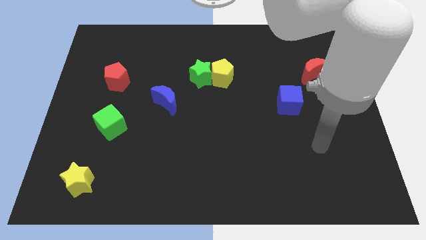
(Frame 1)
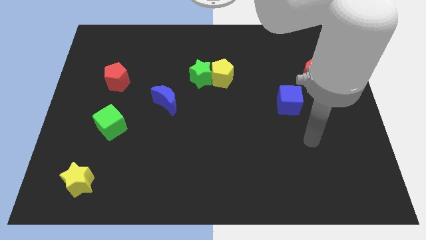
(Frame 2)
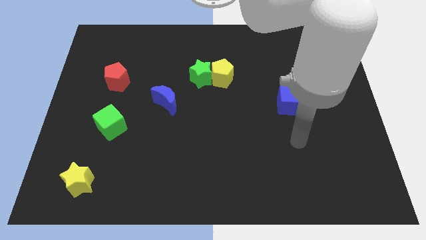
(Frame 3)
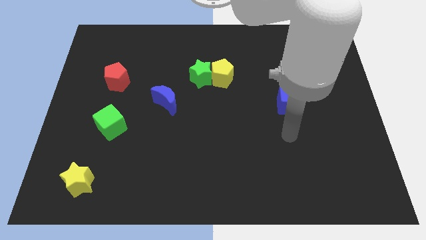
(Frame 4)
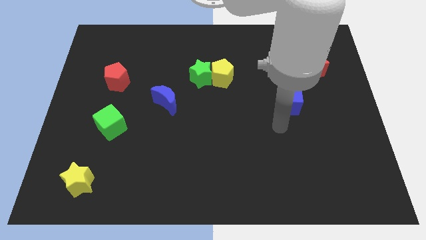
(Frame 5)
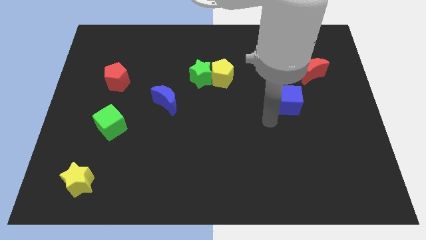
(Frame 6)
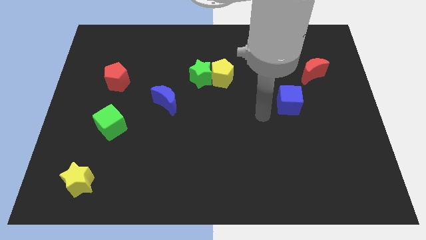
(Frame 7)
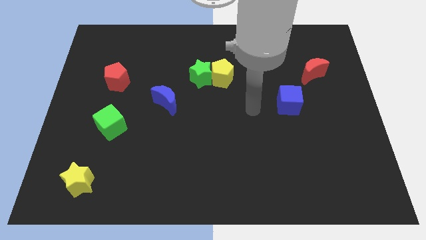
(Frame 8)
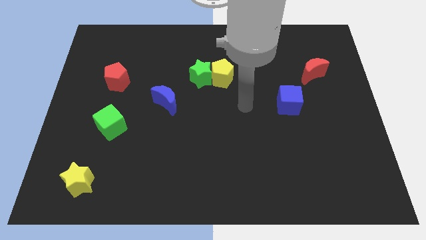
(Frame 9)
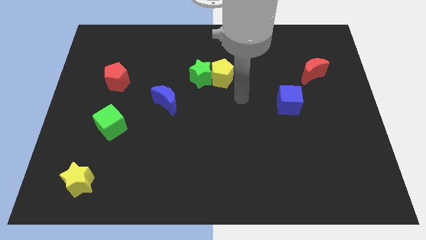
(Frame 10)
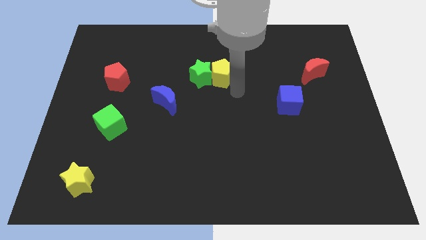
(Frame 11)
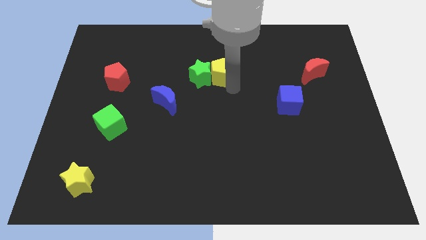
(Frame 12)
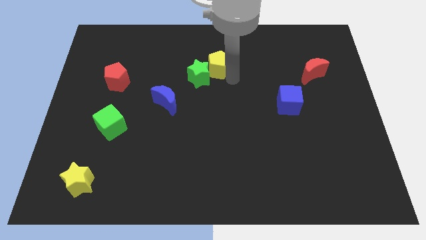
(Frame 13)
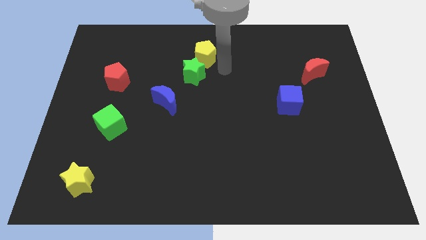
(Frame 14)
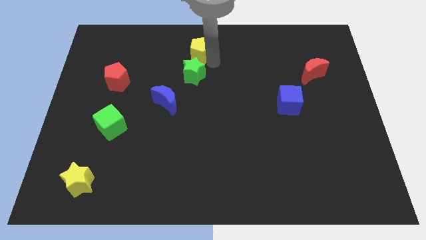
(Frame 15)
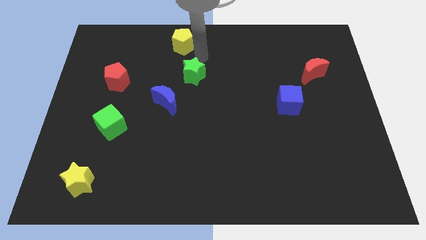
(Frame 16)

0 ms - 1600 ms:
separate the green star from the yellow pentagon

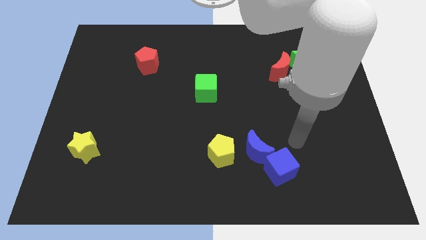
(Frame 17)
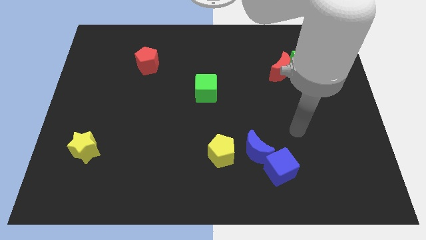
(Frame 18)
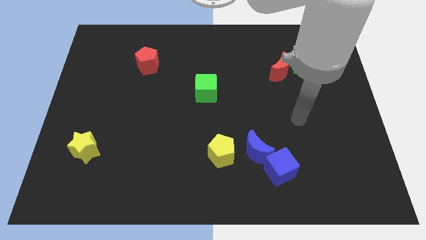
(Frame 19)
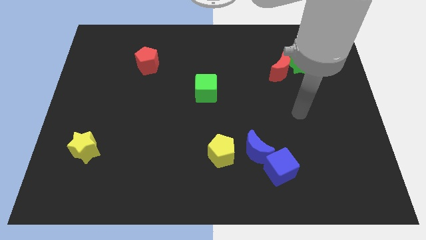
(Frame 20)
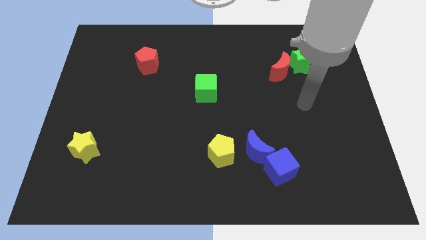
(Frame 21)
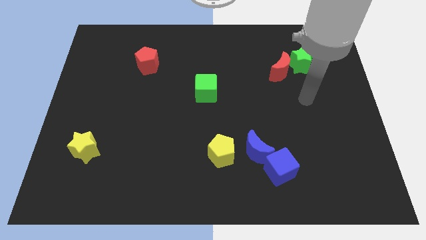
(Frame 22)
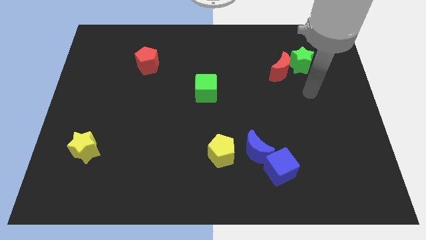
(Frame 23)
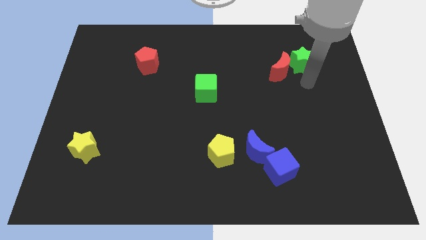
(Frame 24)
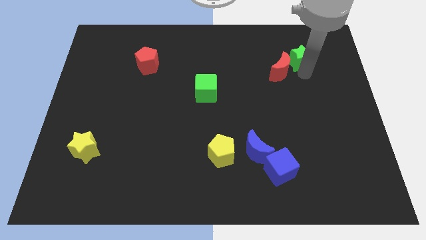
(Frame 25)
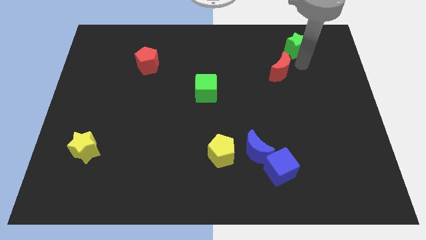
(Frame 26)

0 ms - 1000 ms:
move the red moon away from the green star

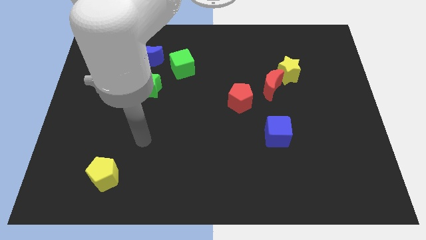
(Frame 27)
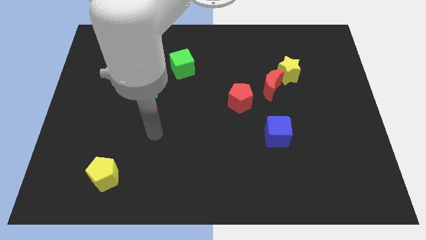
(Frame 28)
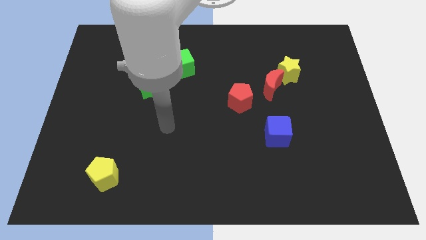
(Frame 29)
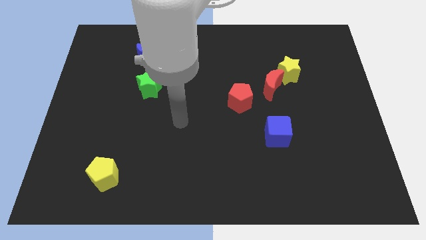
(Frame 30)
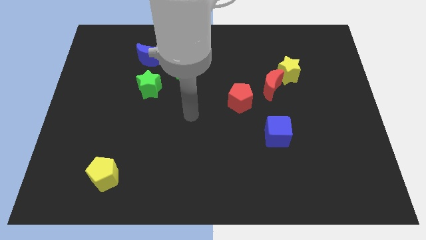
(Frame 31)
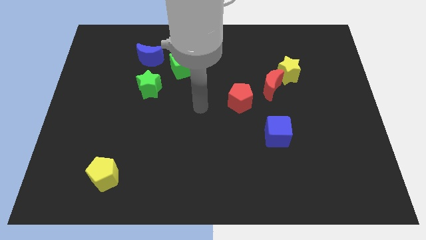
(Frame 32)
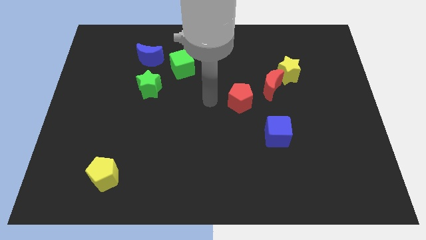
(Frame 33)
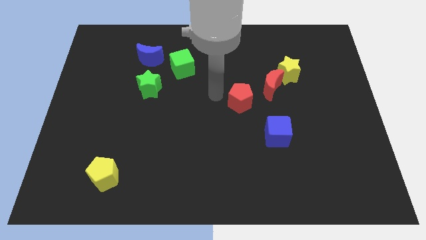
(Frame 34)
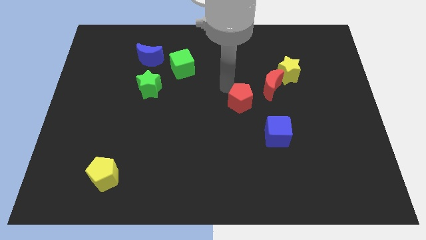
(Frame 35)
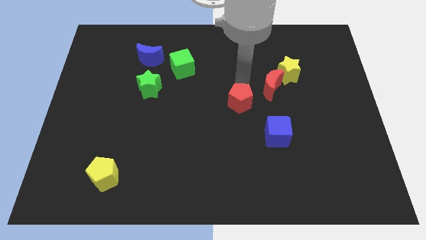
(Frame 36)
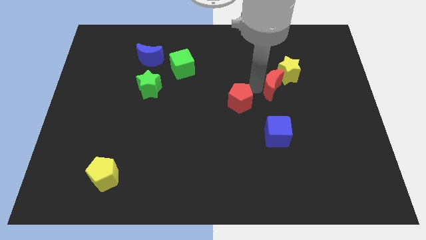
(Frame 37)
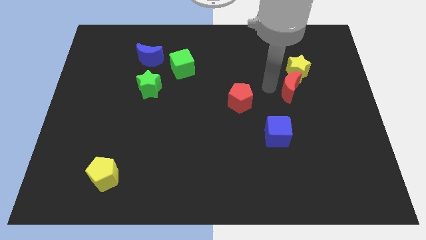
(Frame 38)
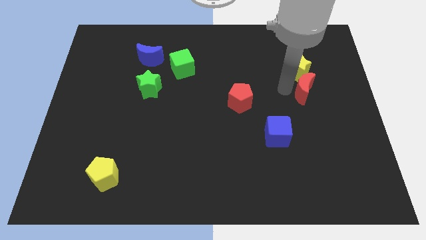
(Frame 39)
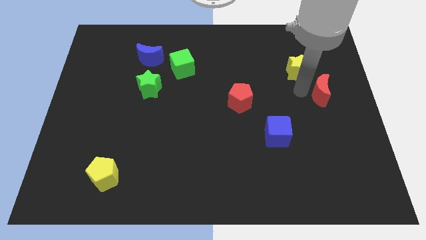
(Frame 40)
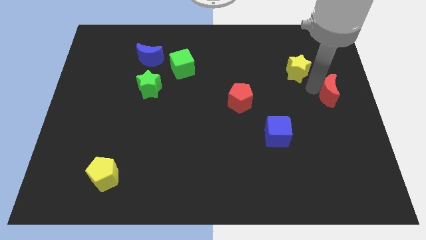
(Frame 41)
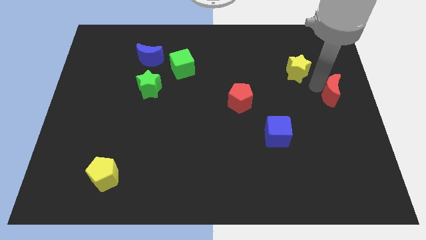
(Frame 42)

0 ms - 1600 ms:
separate the yellow star from the red moon

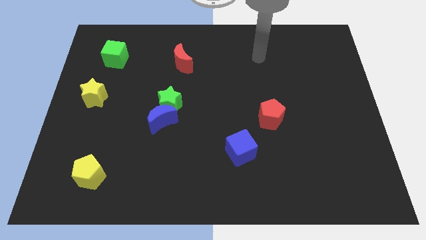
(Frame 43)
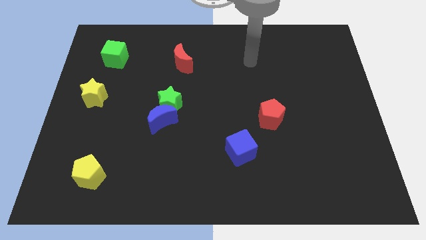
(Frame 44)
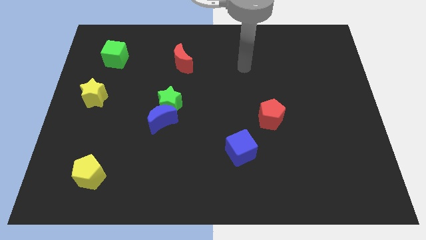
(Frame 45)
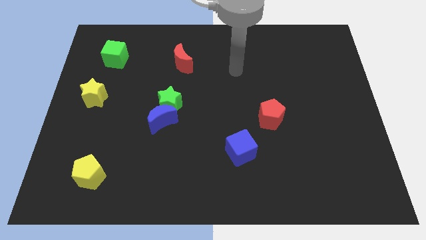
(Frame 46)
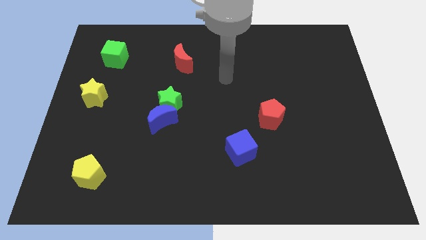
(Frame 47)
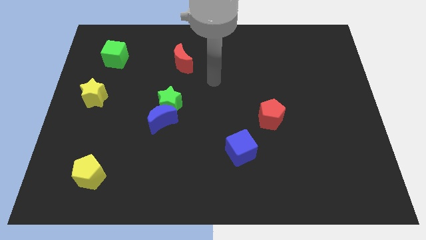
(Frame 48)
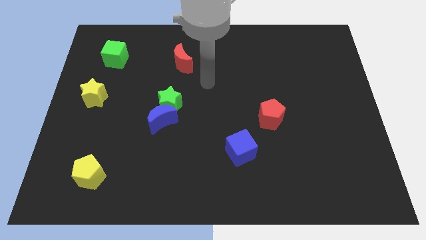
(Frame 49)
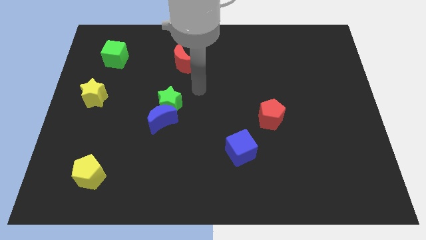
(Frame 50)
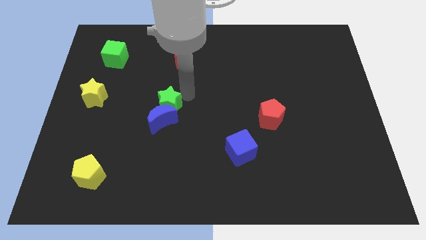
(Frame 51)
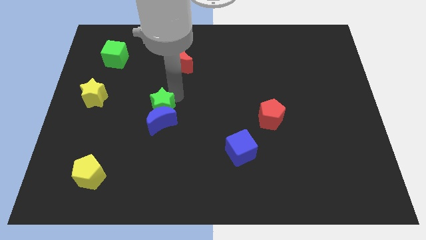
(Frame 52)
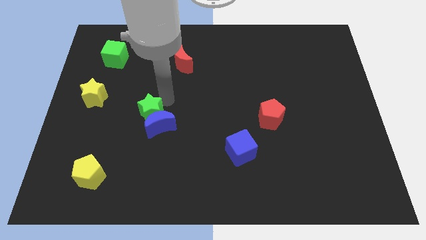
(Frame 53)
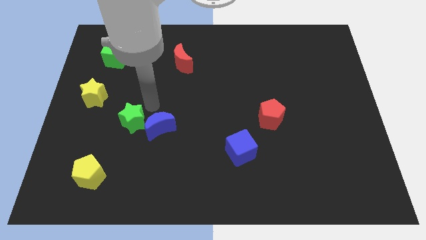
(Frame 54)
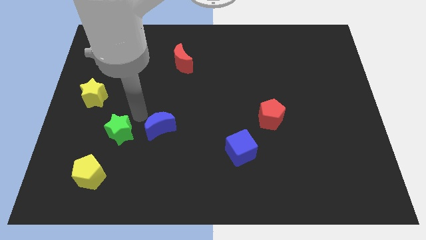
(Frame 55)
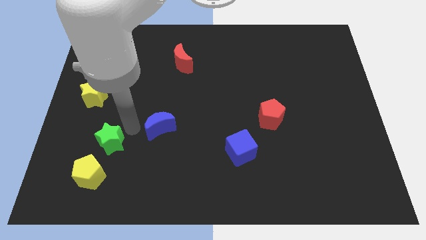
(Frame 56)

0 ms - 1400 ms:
move the blue moon away from the green star

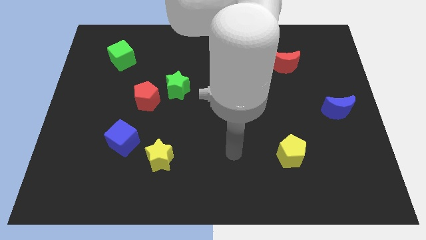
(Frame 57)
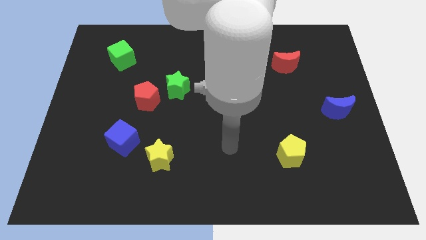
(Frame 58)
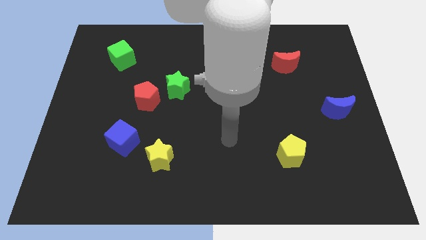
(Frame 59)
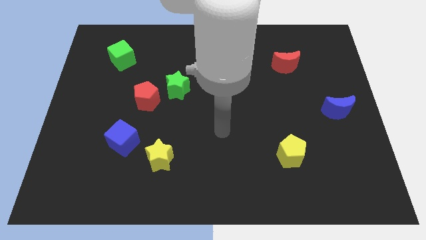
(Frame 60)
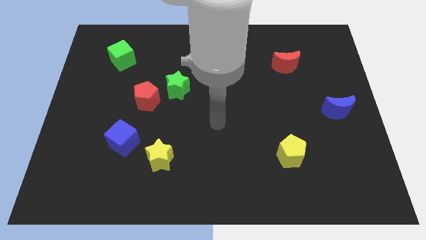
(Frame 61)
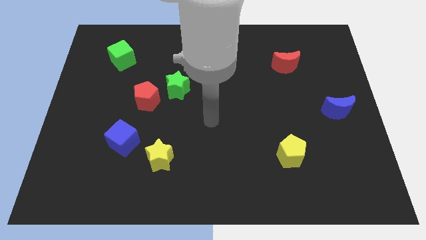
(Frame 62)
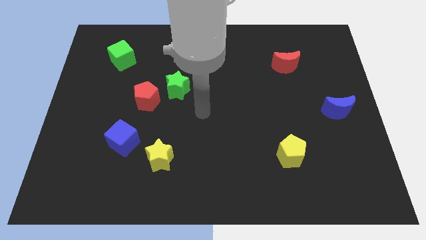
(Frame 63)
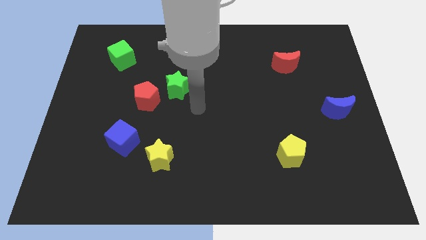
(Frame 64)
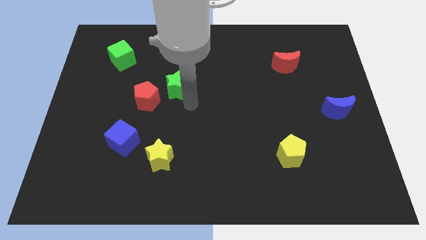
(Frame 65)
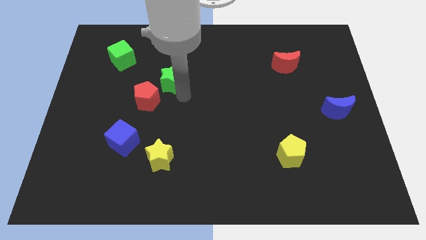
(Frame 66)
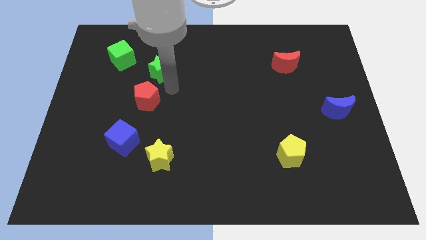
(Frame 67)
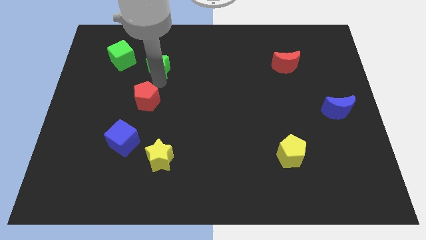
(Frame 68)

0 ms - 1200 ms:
separate the red pentagon from the green star

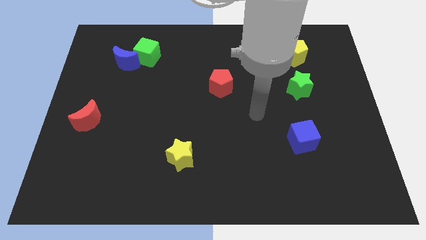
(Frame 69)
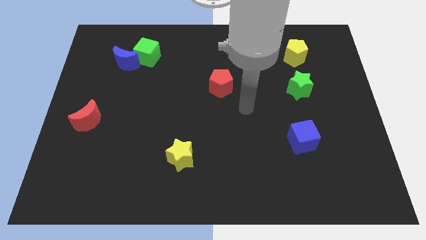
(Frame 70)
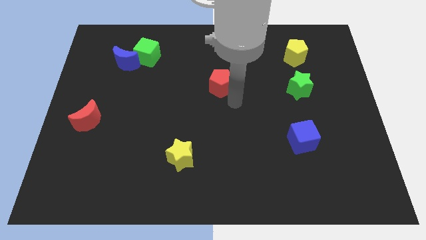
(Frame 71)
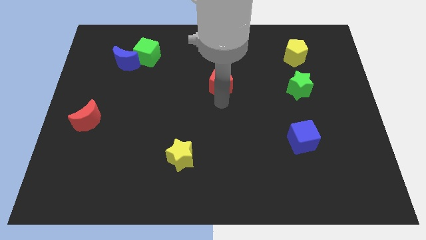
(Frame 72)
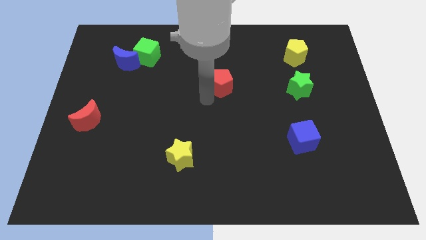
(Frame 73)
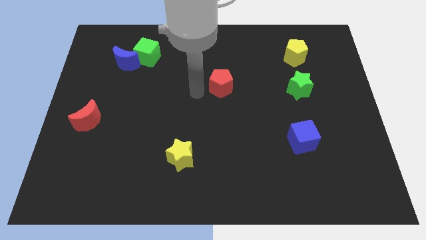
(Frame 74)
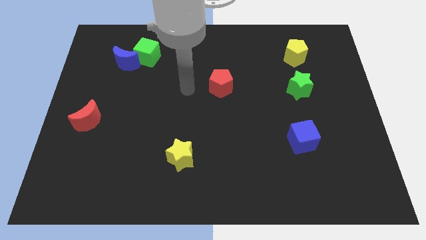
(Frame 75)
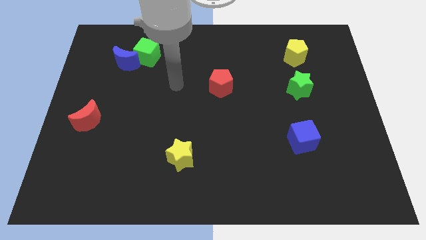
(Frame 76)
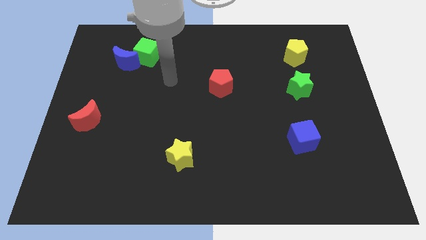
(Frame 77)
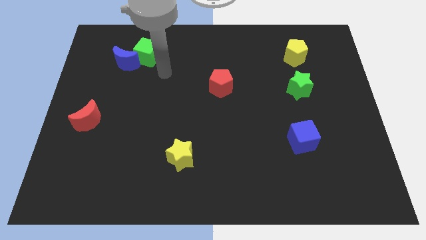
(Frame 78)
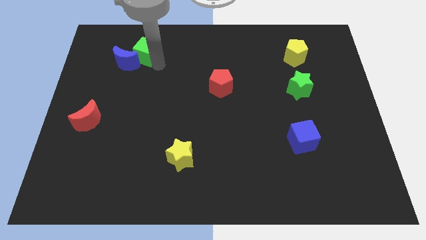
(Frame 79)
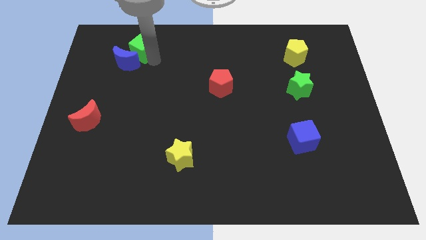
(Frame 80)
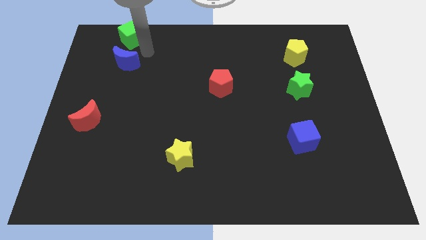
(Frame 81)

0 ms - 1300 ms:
pull the blue moon apart from the green cube

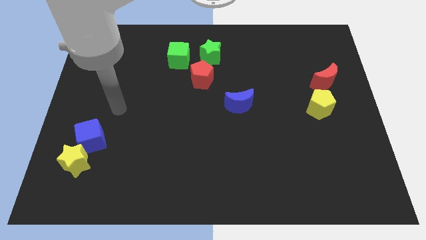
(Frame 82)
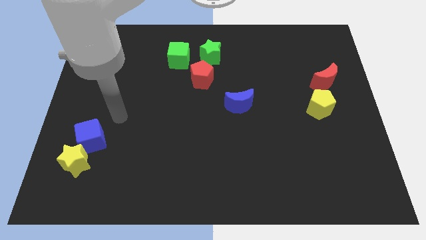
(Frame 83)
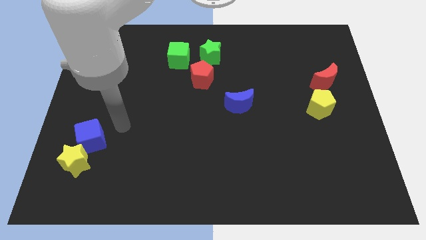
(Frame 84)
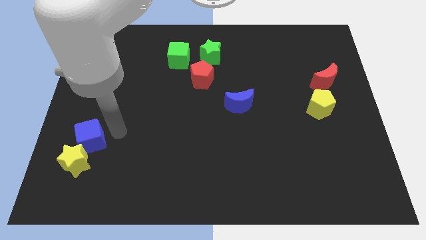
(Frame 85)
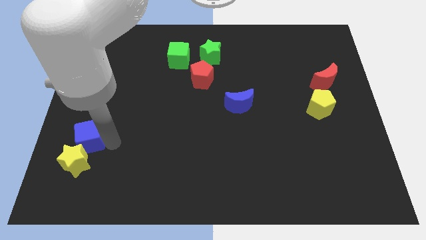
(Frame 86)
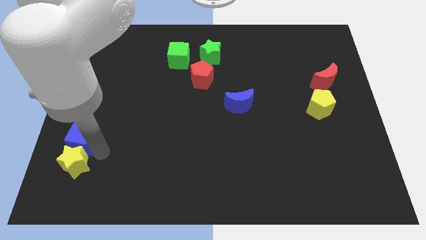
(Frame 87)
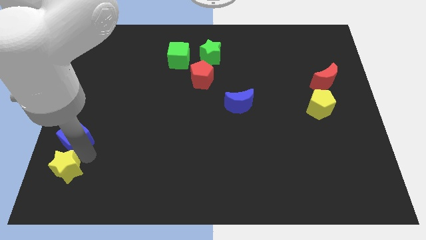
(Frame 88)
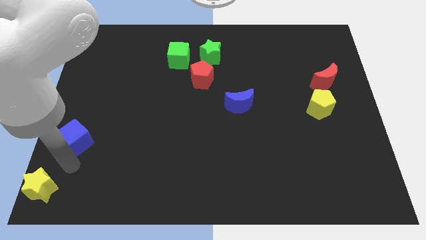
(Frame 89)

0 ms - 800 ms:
pull the blue cube apart from the yellow star

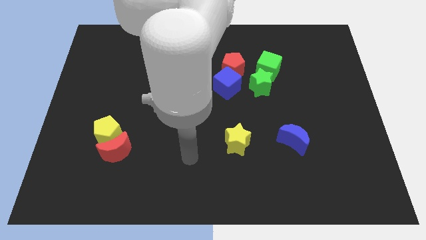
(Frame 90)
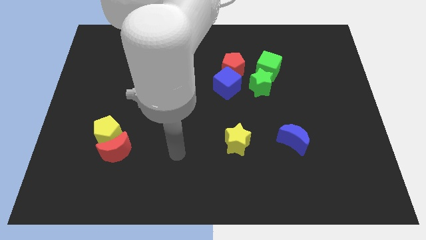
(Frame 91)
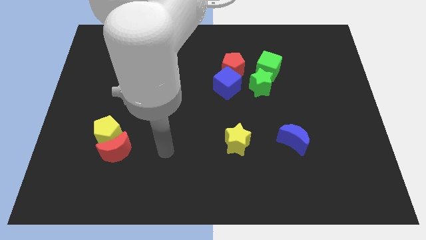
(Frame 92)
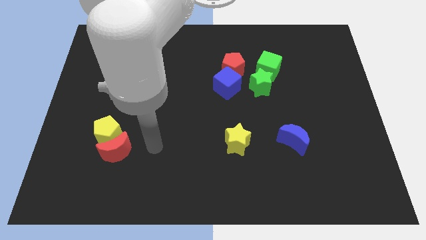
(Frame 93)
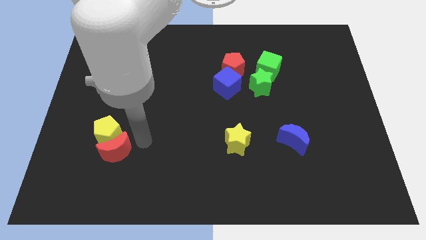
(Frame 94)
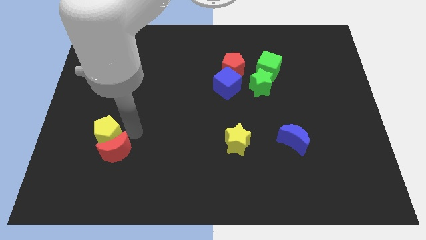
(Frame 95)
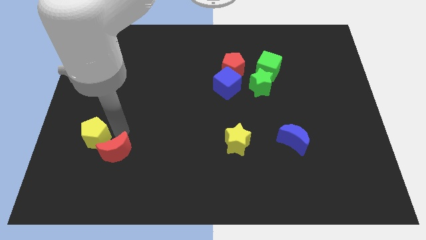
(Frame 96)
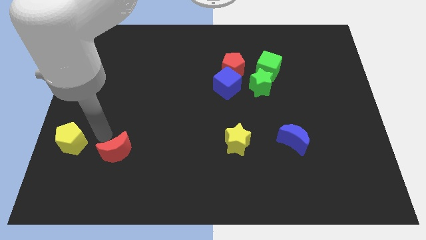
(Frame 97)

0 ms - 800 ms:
move the red moon away from the yellow pentagon
